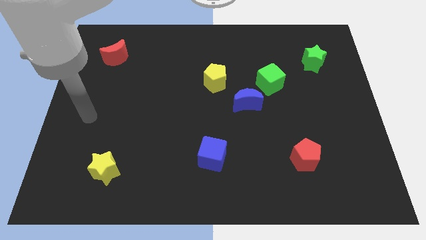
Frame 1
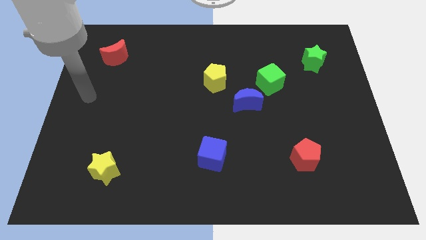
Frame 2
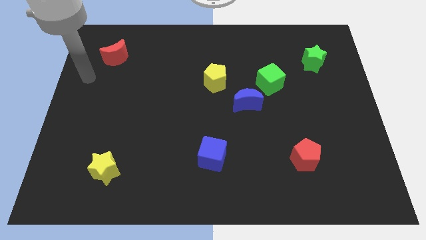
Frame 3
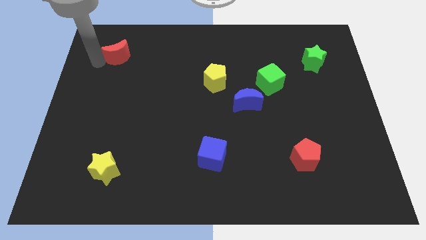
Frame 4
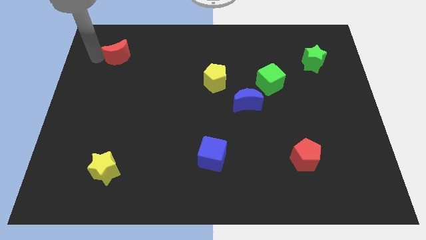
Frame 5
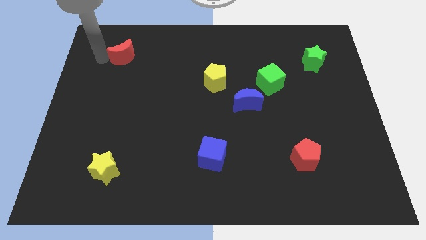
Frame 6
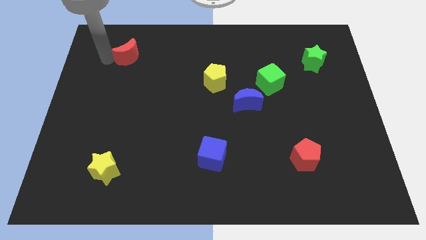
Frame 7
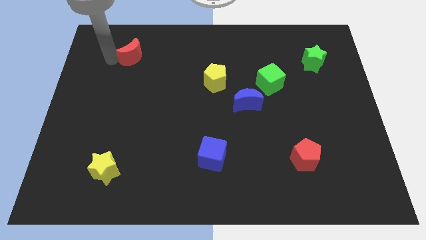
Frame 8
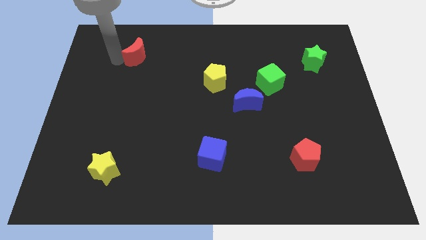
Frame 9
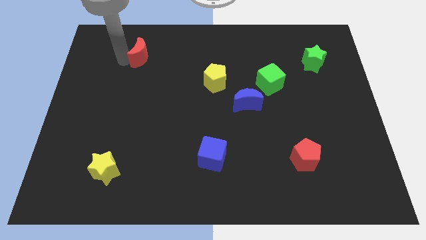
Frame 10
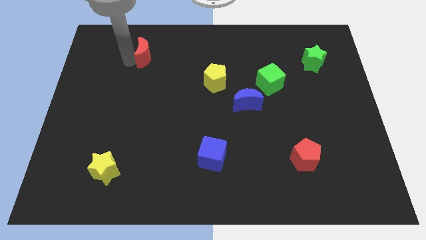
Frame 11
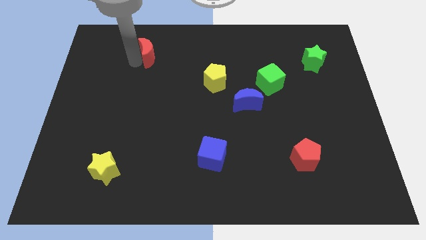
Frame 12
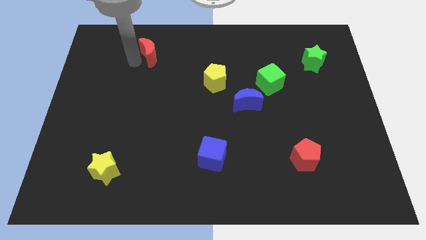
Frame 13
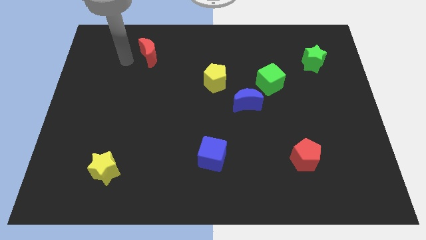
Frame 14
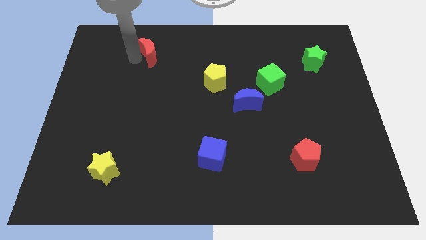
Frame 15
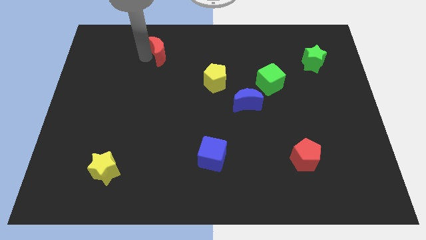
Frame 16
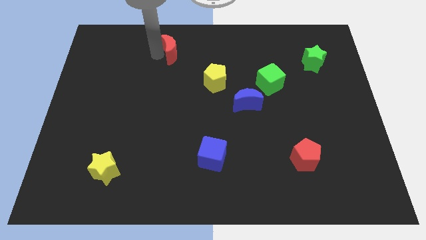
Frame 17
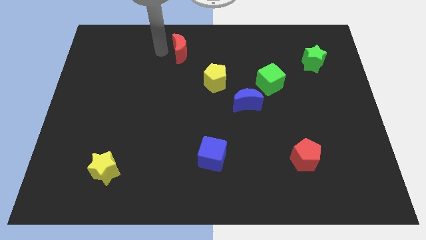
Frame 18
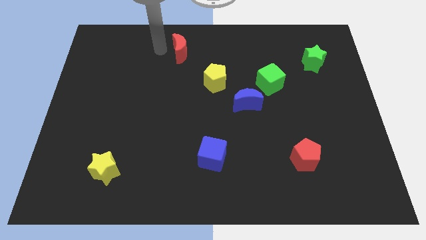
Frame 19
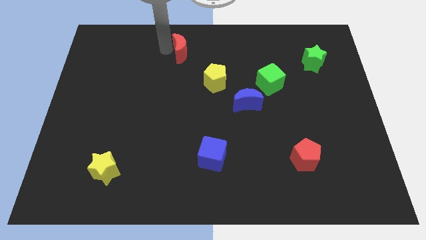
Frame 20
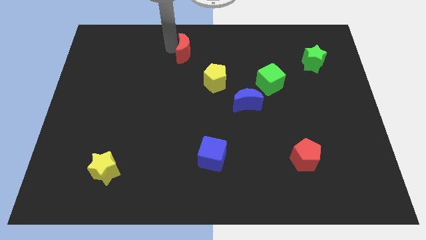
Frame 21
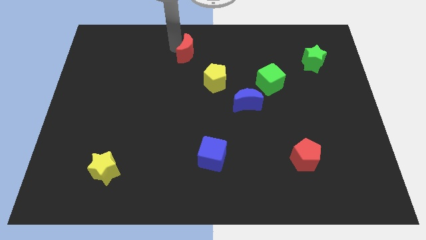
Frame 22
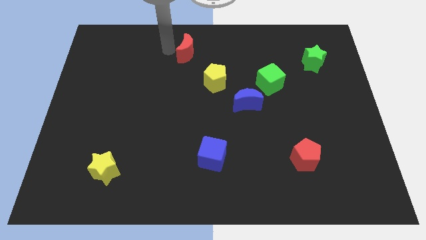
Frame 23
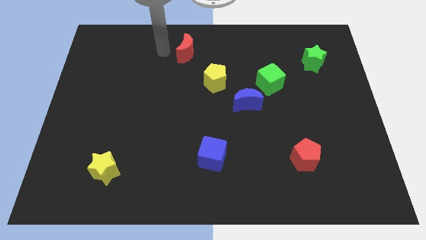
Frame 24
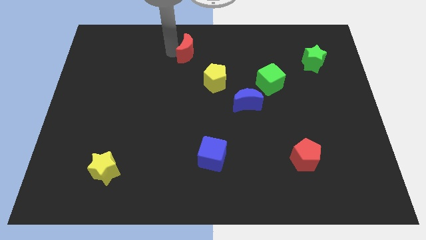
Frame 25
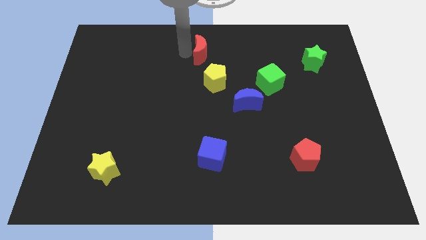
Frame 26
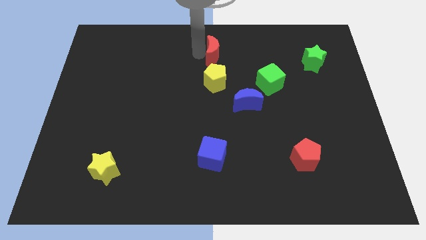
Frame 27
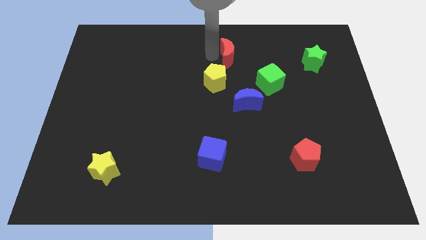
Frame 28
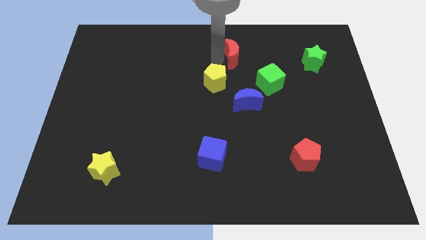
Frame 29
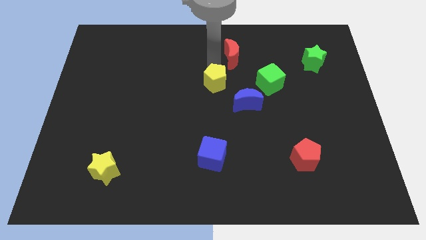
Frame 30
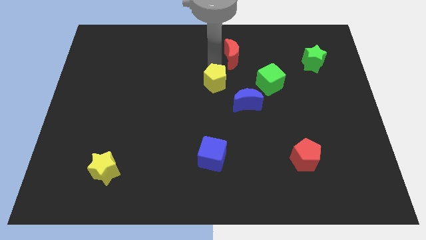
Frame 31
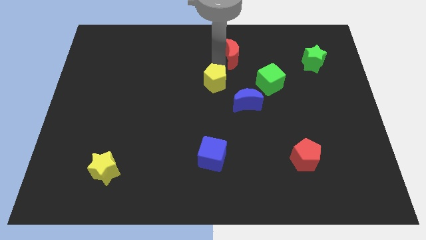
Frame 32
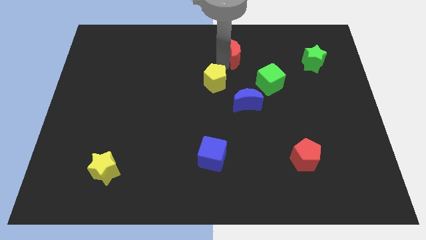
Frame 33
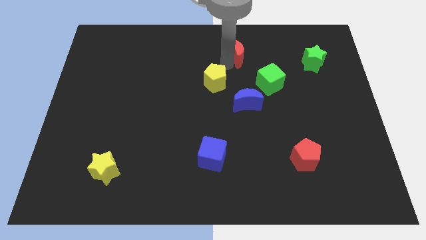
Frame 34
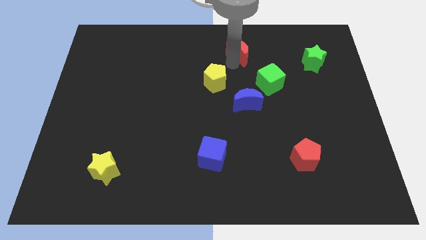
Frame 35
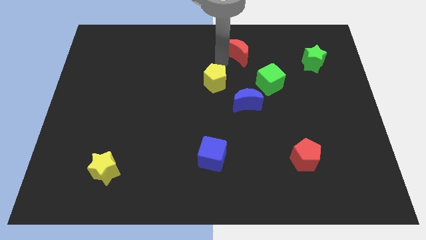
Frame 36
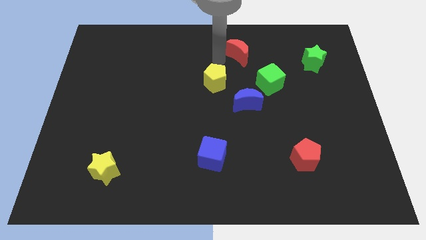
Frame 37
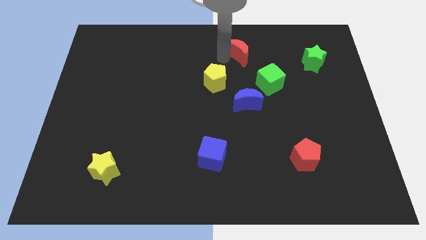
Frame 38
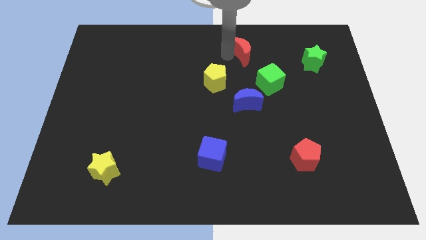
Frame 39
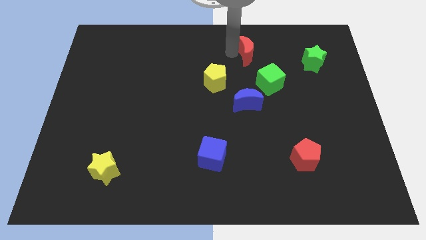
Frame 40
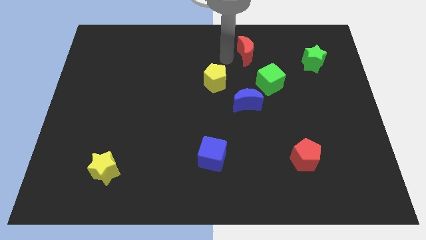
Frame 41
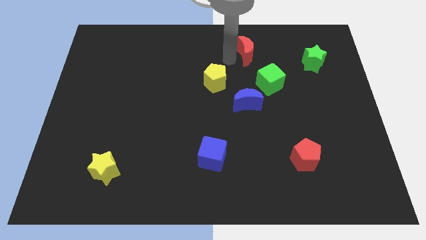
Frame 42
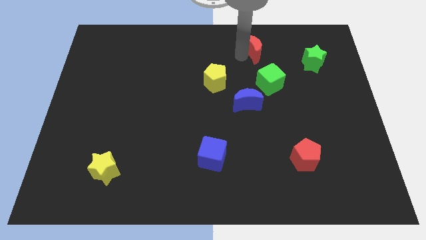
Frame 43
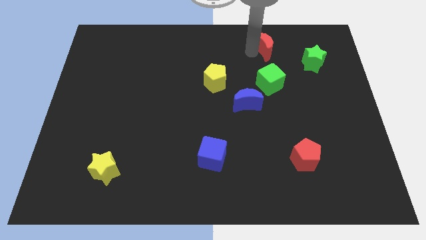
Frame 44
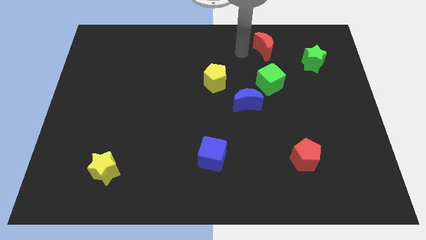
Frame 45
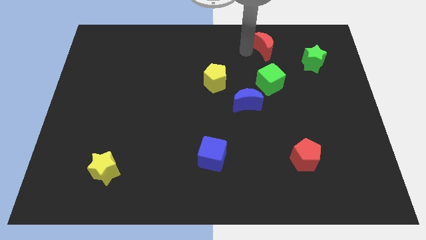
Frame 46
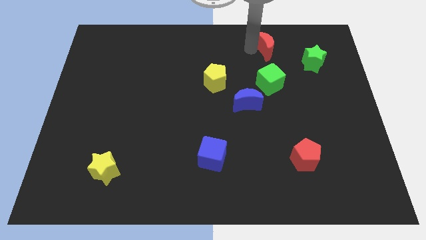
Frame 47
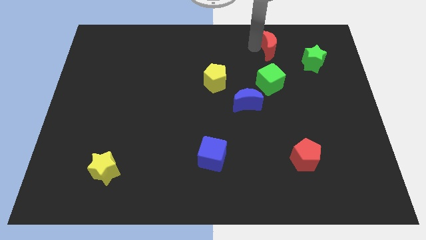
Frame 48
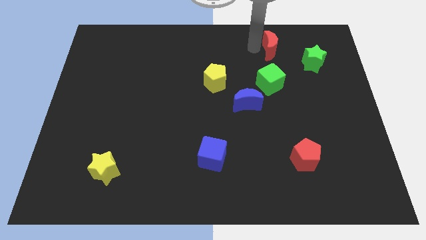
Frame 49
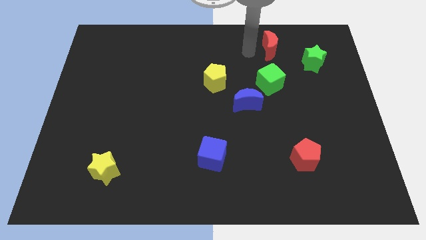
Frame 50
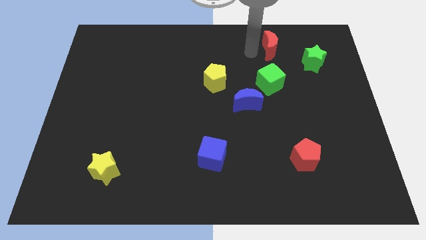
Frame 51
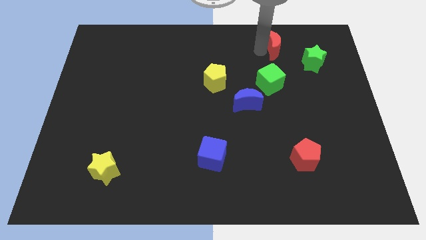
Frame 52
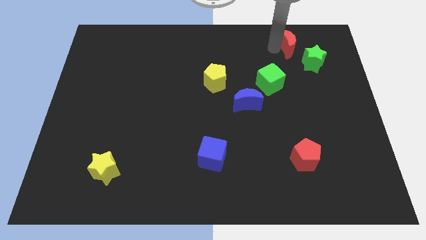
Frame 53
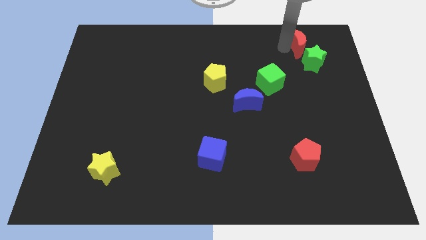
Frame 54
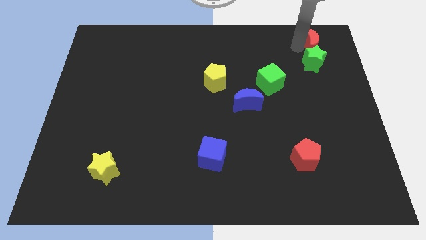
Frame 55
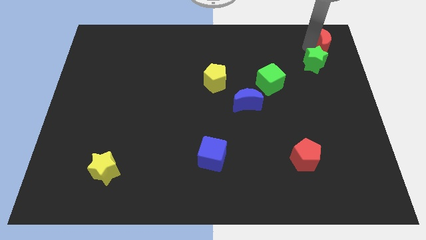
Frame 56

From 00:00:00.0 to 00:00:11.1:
push the red moon to the upper right corner

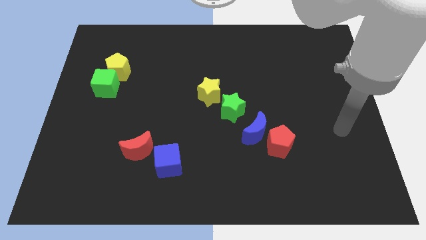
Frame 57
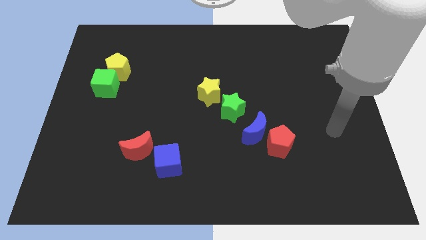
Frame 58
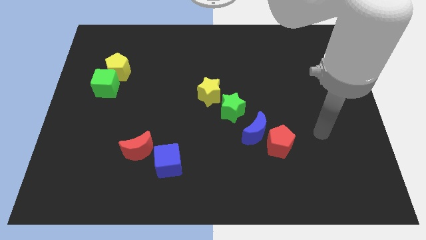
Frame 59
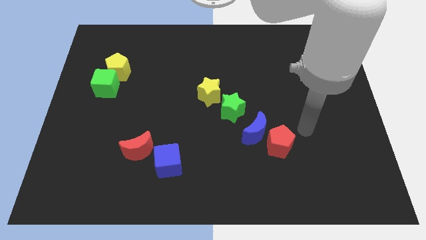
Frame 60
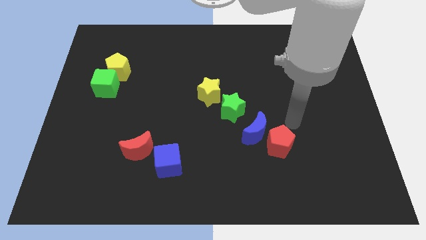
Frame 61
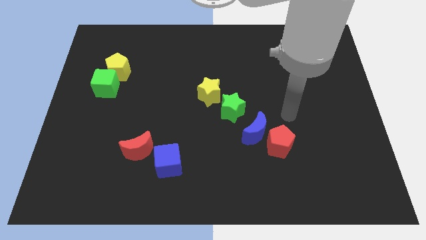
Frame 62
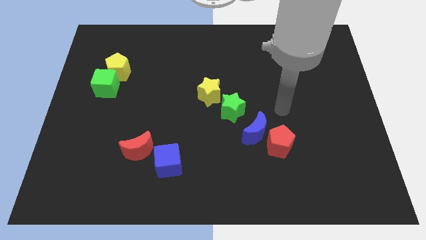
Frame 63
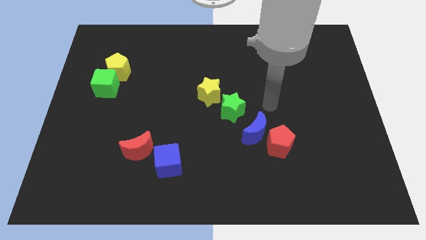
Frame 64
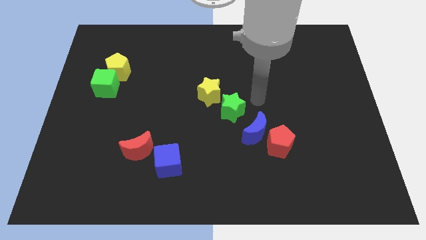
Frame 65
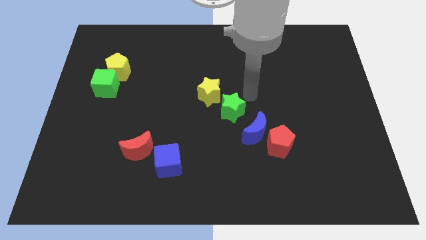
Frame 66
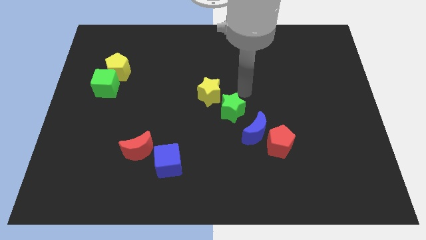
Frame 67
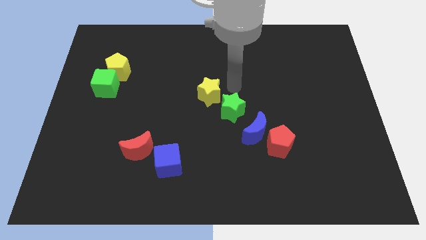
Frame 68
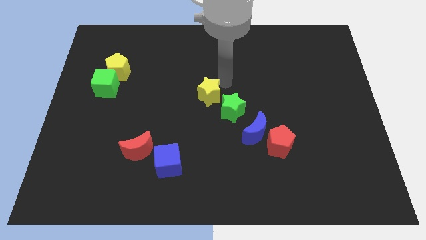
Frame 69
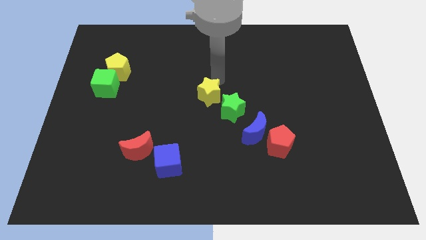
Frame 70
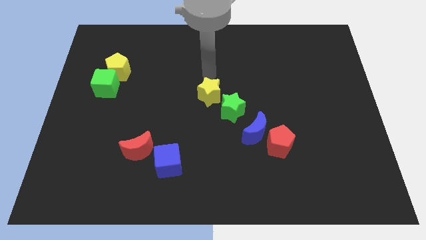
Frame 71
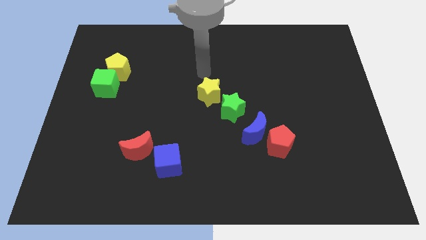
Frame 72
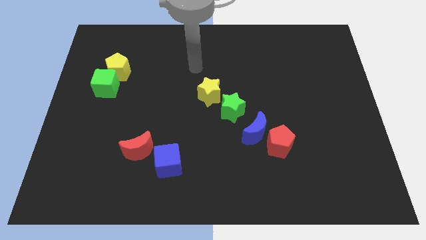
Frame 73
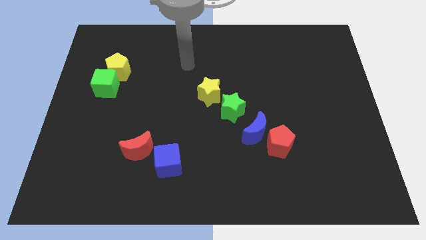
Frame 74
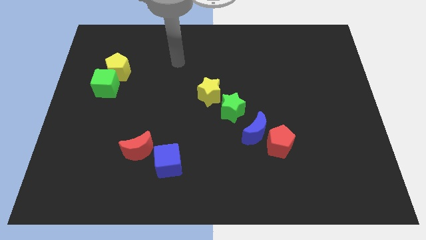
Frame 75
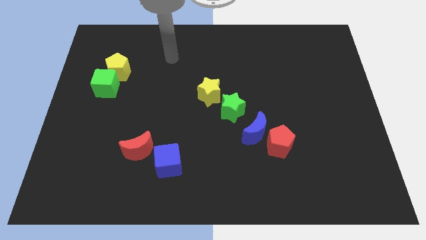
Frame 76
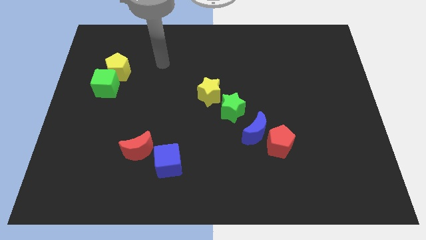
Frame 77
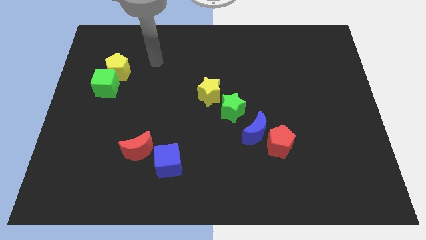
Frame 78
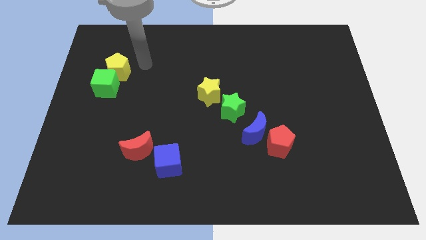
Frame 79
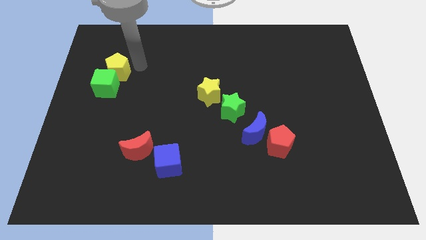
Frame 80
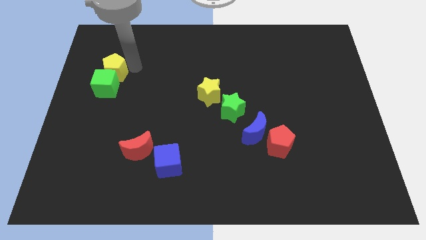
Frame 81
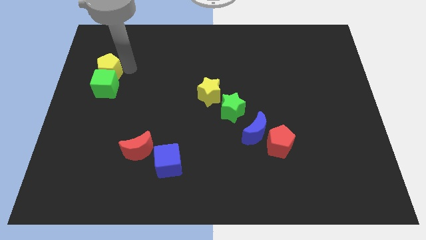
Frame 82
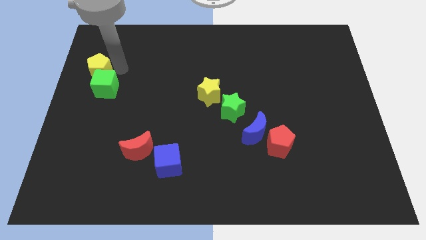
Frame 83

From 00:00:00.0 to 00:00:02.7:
move the yellow pentagon to the left side
